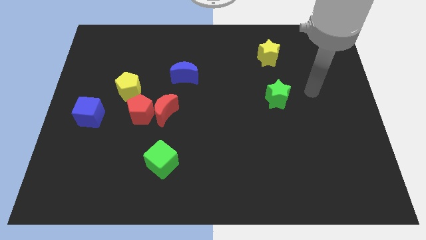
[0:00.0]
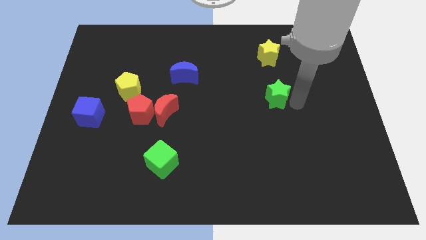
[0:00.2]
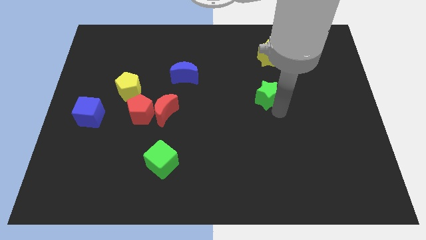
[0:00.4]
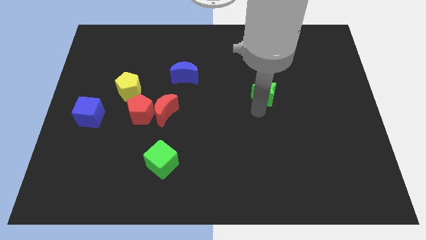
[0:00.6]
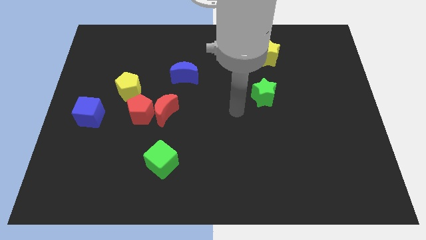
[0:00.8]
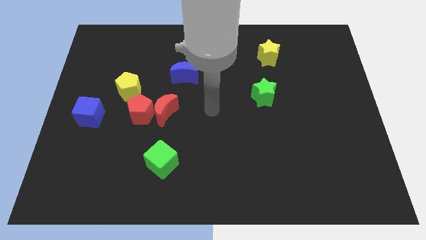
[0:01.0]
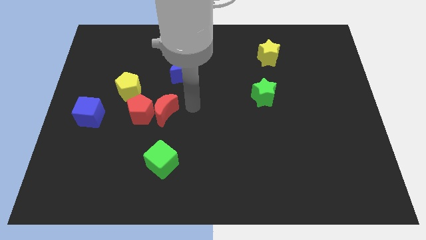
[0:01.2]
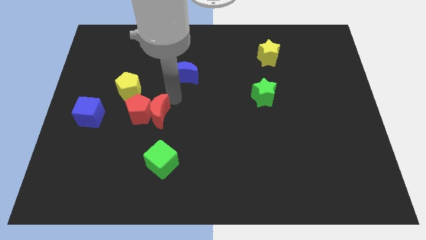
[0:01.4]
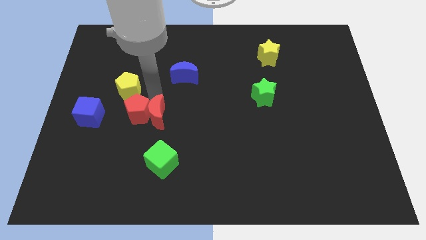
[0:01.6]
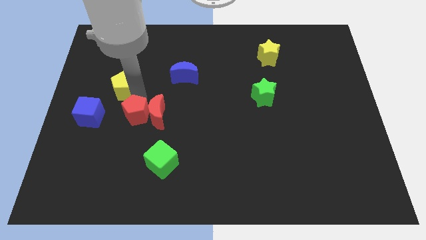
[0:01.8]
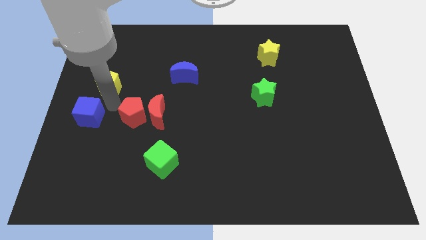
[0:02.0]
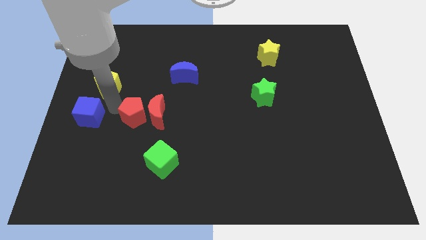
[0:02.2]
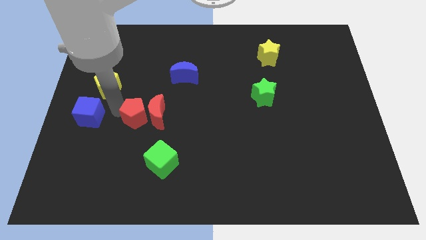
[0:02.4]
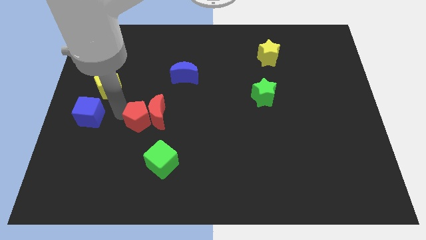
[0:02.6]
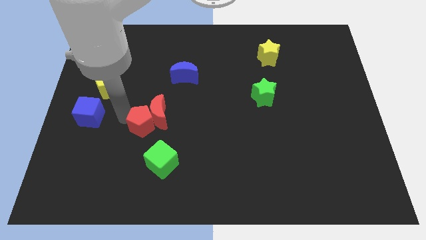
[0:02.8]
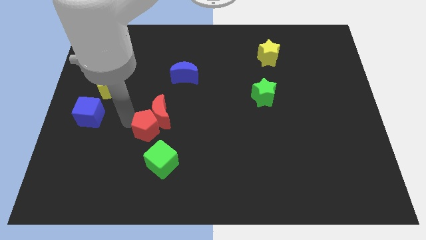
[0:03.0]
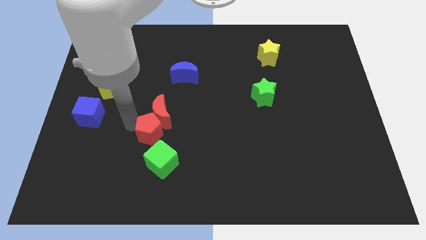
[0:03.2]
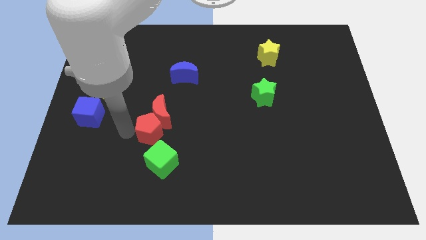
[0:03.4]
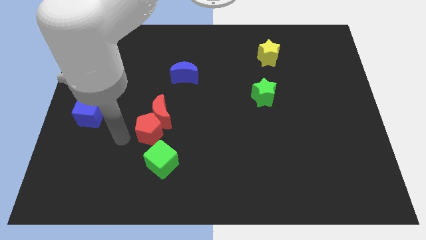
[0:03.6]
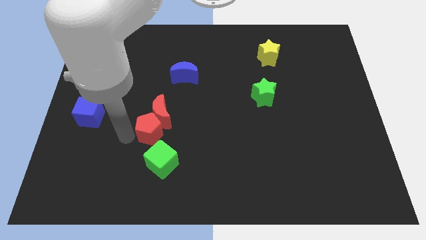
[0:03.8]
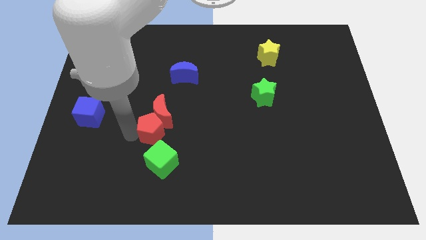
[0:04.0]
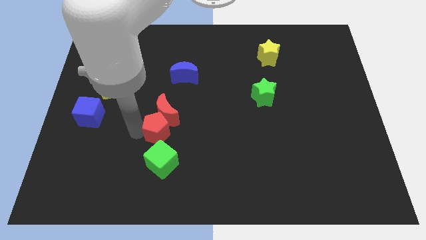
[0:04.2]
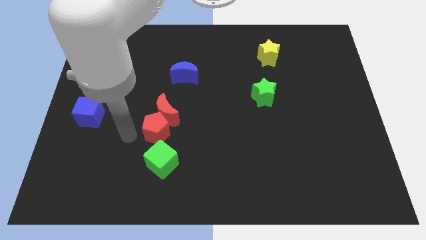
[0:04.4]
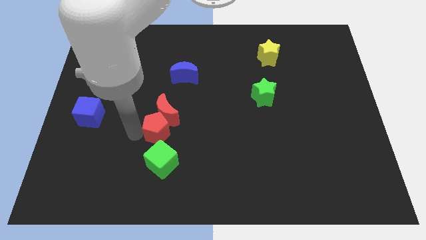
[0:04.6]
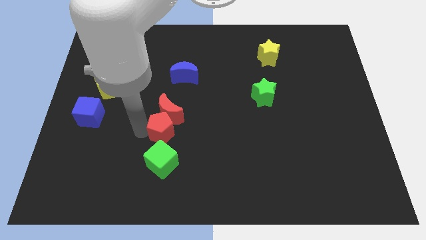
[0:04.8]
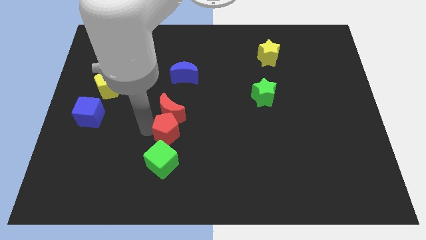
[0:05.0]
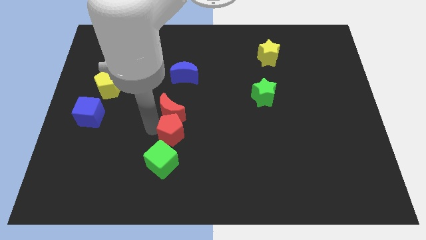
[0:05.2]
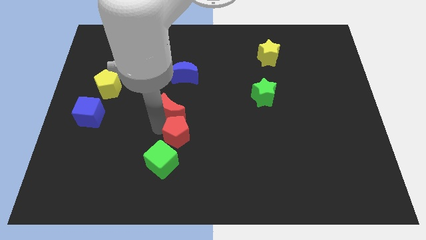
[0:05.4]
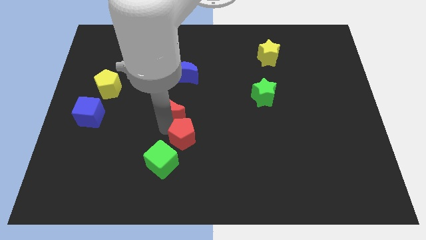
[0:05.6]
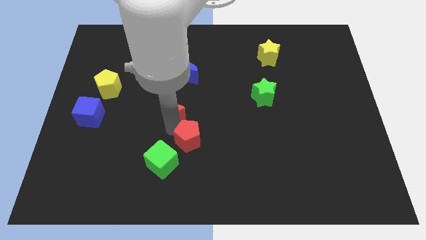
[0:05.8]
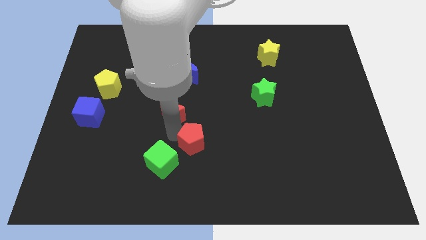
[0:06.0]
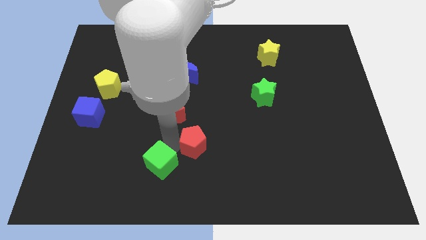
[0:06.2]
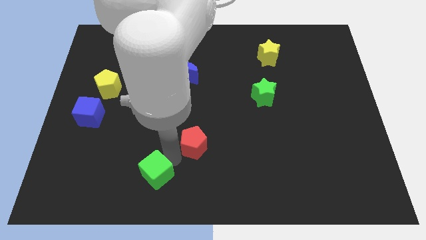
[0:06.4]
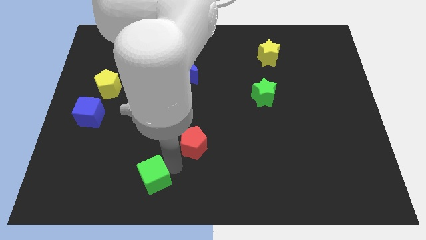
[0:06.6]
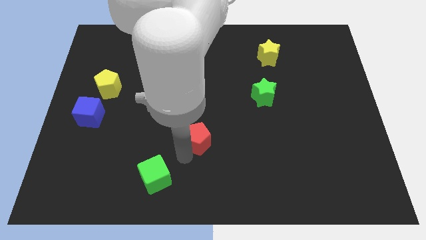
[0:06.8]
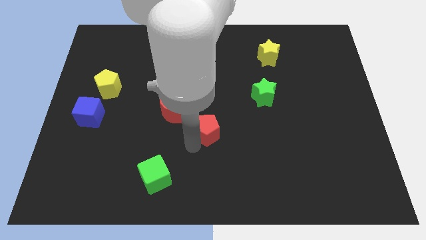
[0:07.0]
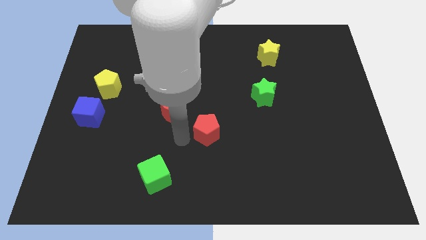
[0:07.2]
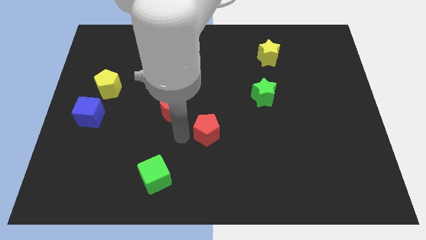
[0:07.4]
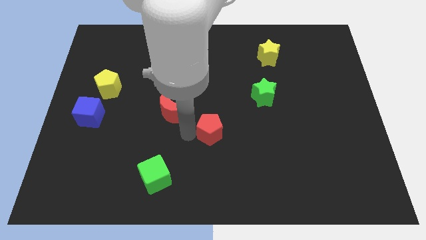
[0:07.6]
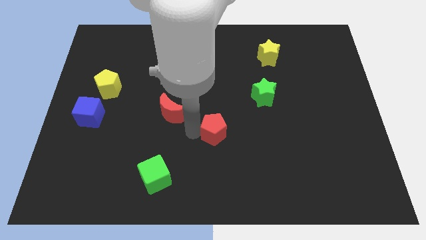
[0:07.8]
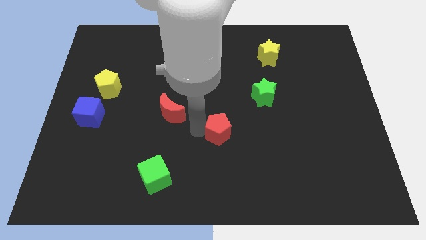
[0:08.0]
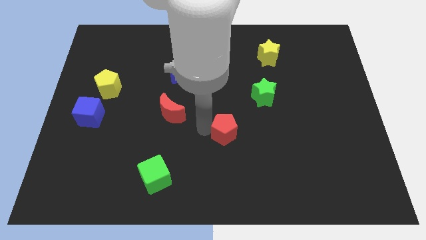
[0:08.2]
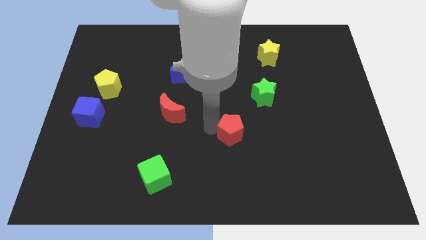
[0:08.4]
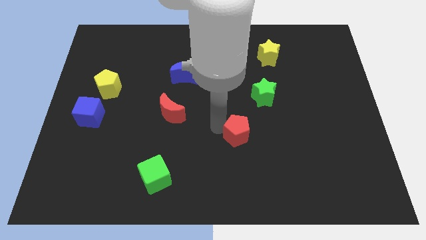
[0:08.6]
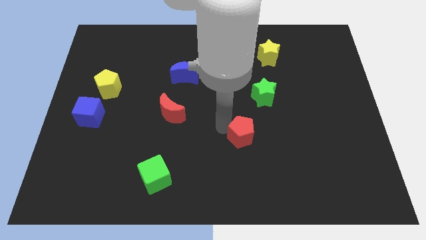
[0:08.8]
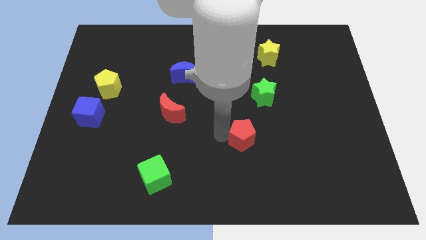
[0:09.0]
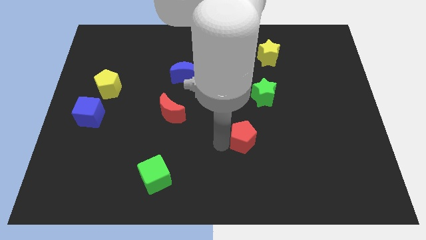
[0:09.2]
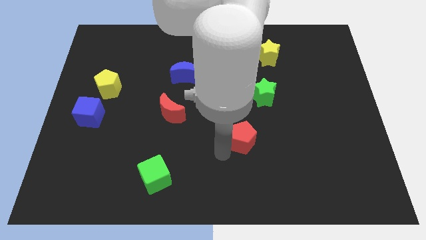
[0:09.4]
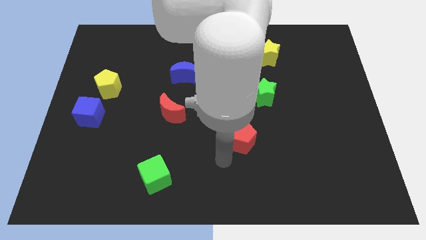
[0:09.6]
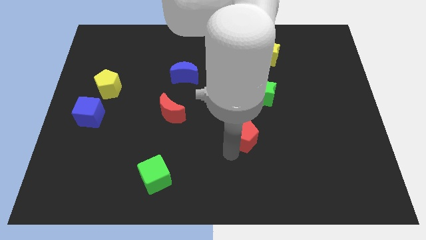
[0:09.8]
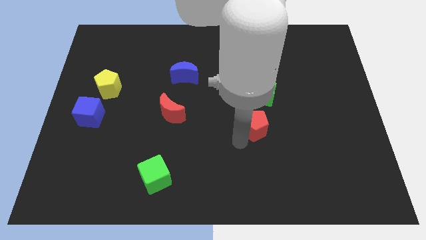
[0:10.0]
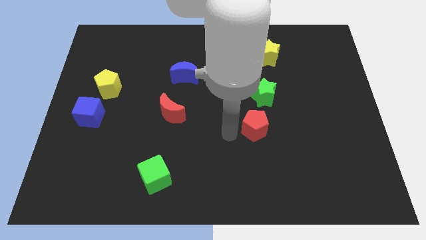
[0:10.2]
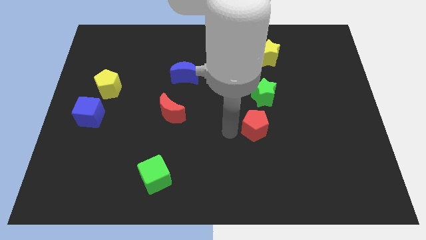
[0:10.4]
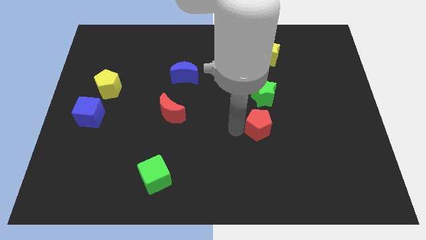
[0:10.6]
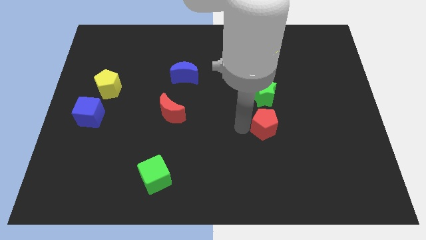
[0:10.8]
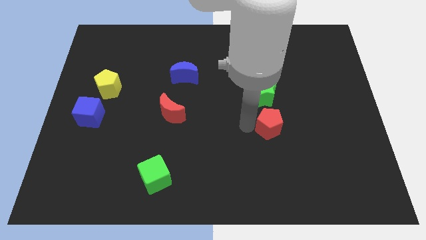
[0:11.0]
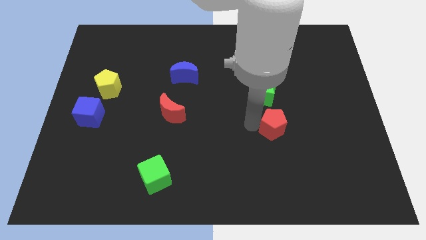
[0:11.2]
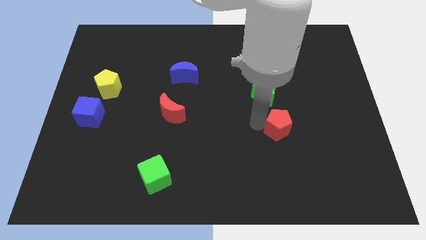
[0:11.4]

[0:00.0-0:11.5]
slide the red pentagon to the bottom right of the green star

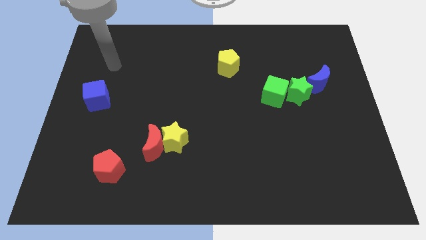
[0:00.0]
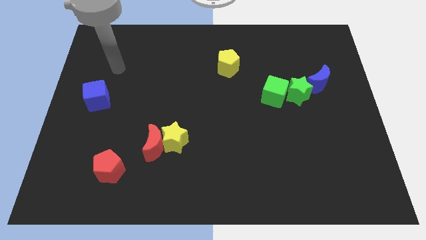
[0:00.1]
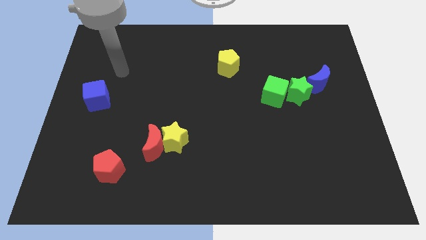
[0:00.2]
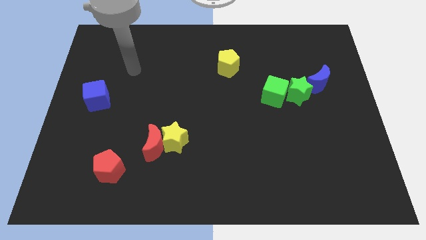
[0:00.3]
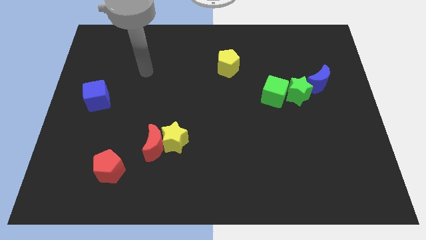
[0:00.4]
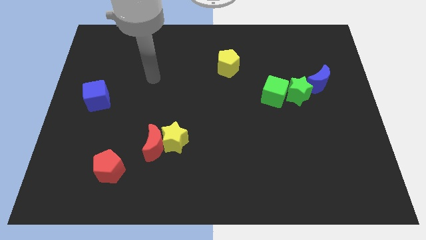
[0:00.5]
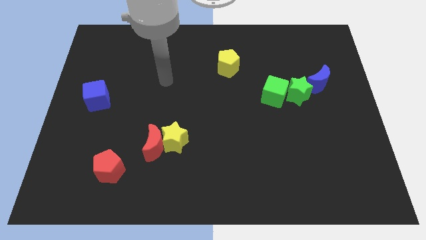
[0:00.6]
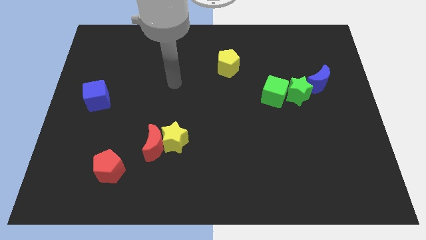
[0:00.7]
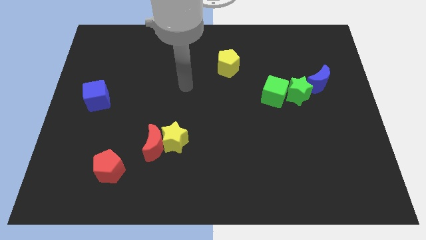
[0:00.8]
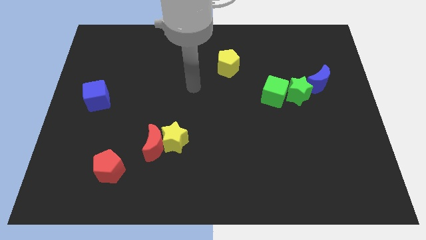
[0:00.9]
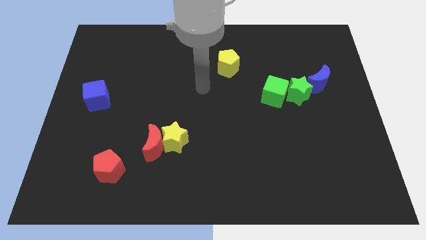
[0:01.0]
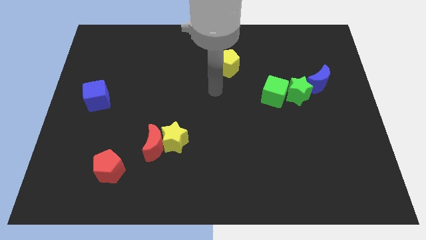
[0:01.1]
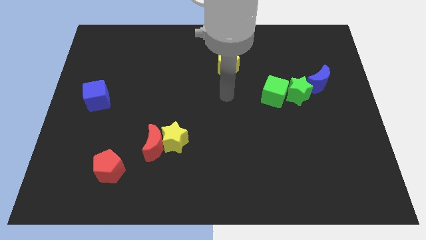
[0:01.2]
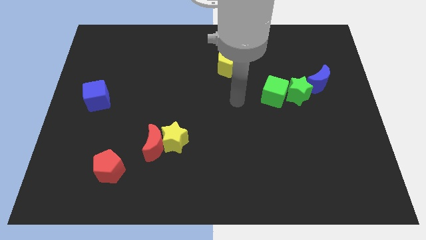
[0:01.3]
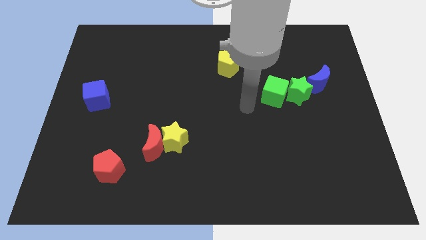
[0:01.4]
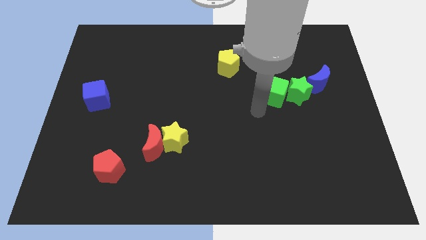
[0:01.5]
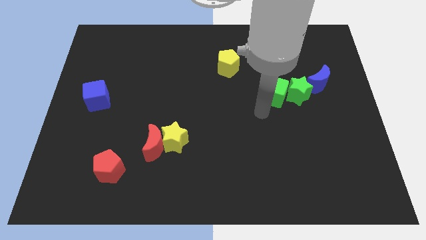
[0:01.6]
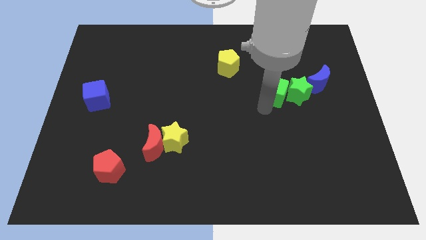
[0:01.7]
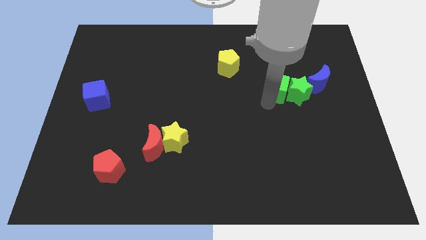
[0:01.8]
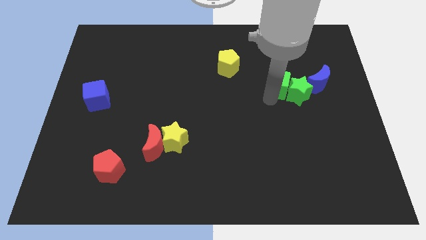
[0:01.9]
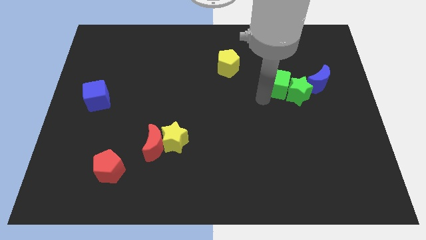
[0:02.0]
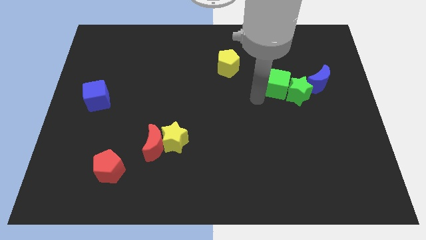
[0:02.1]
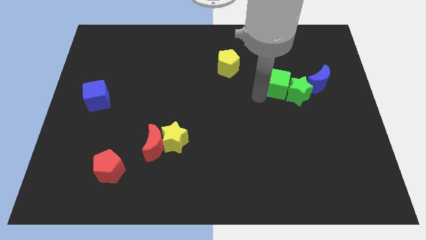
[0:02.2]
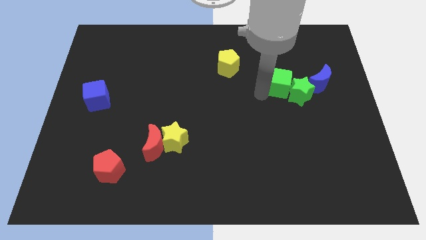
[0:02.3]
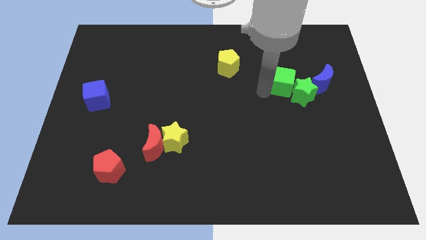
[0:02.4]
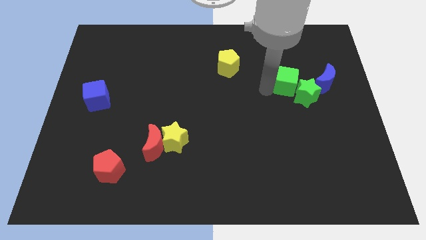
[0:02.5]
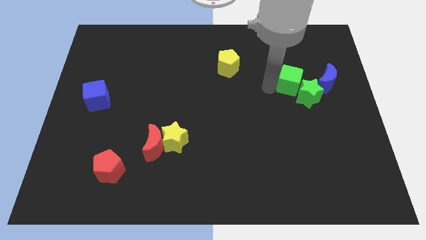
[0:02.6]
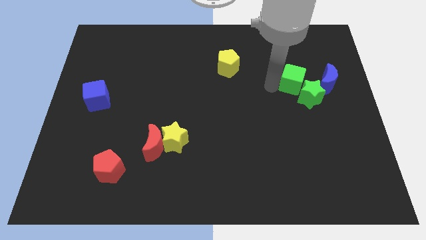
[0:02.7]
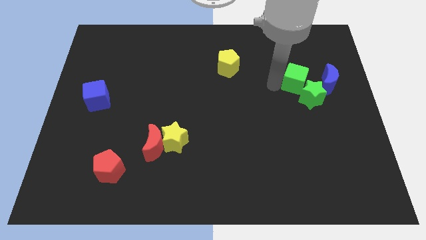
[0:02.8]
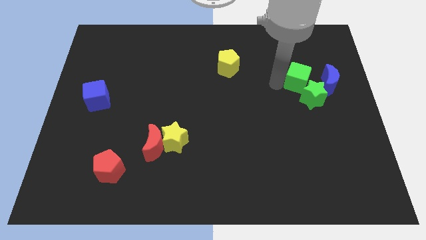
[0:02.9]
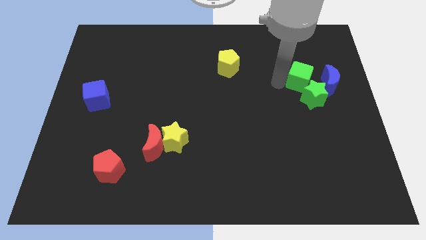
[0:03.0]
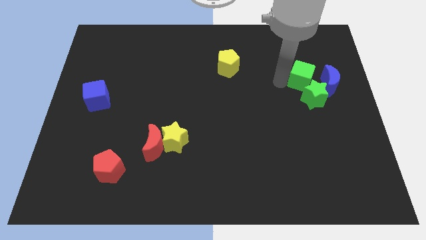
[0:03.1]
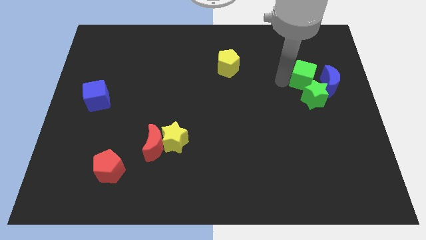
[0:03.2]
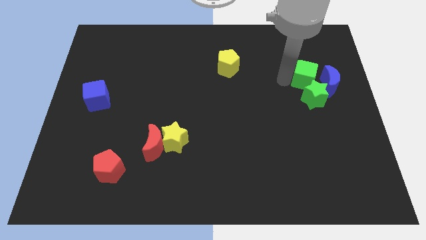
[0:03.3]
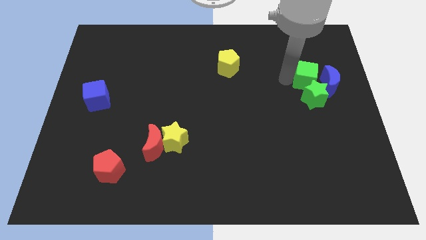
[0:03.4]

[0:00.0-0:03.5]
push the green cube diagonally up and to the right of the green star
